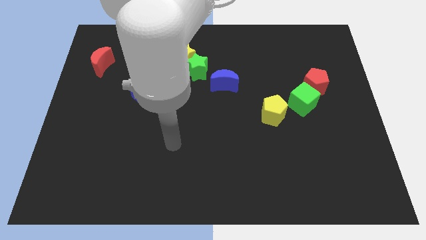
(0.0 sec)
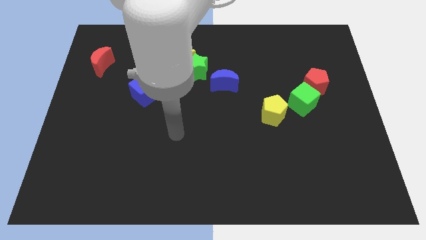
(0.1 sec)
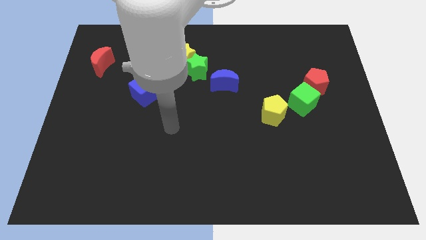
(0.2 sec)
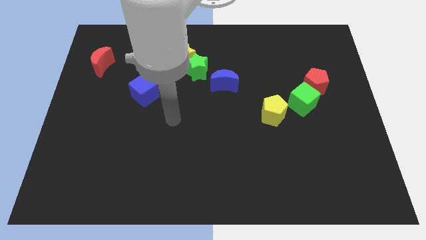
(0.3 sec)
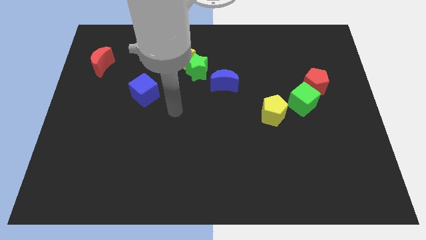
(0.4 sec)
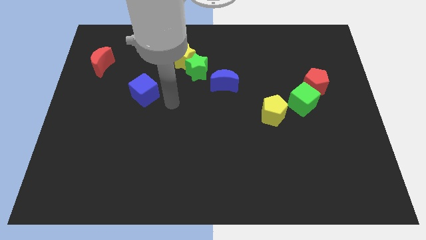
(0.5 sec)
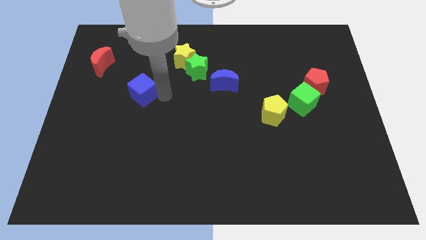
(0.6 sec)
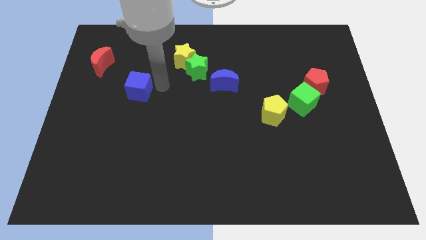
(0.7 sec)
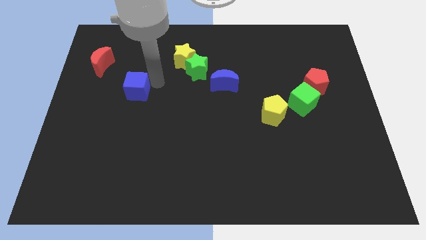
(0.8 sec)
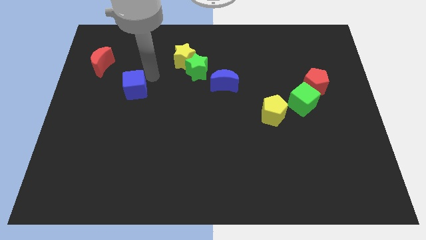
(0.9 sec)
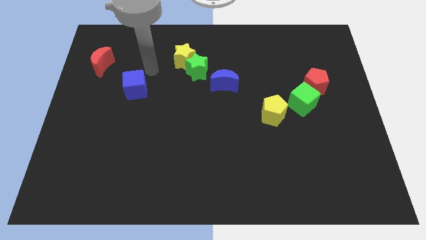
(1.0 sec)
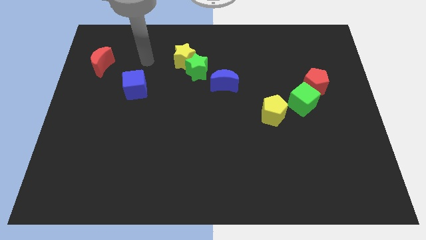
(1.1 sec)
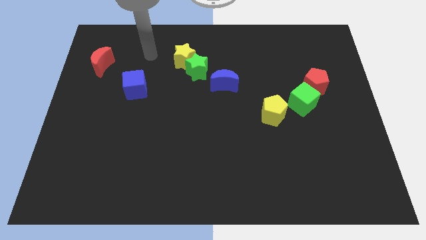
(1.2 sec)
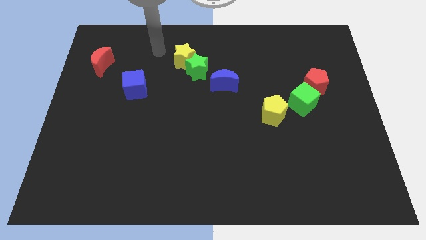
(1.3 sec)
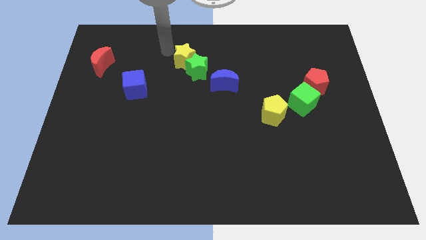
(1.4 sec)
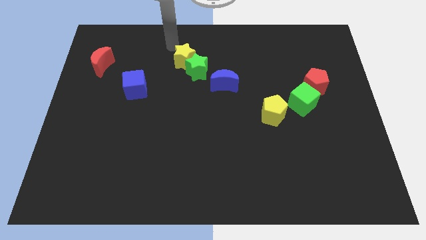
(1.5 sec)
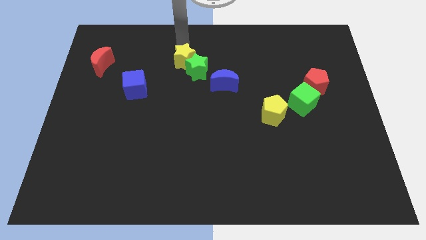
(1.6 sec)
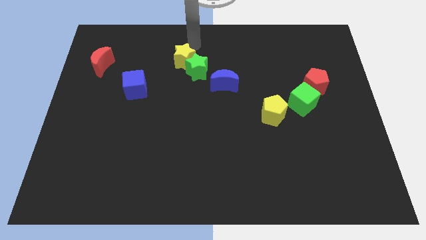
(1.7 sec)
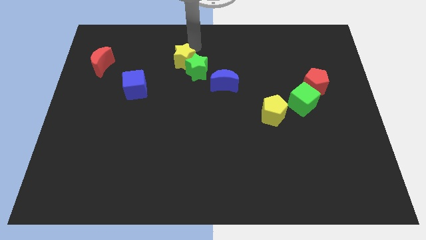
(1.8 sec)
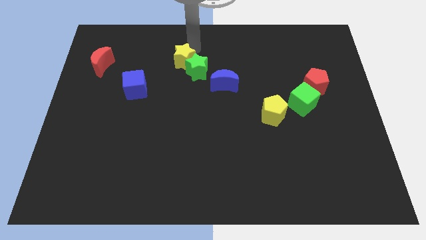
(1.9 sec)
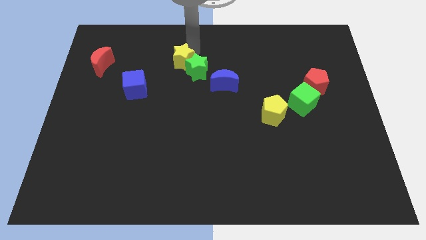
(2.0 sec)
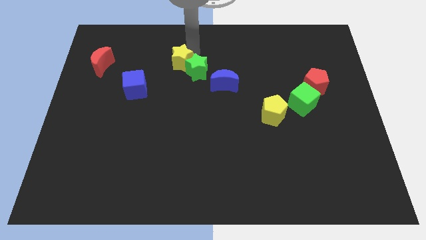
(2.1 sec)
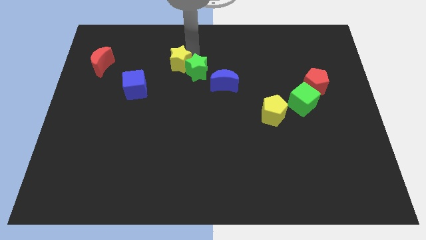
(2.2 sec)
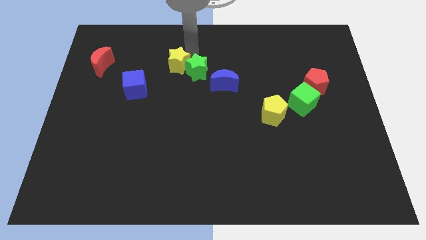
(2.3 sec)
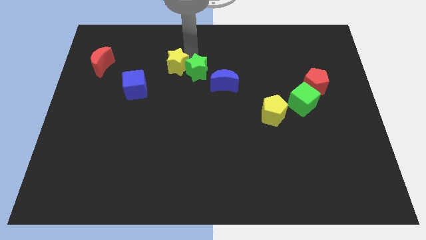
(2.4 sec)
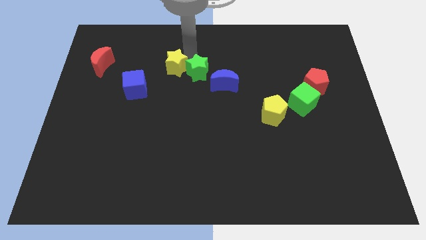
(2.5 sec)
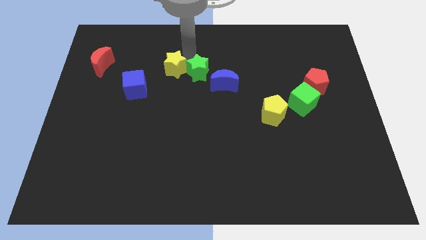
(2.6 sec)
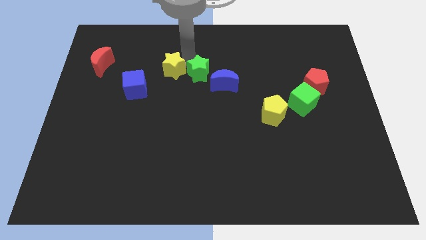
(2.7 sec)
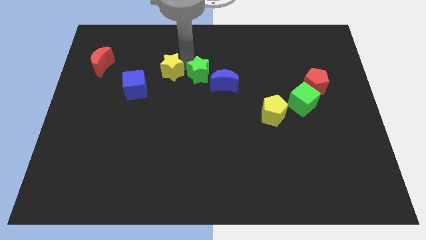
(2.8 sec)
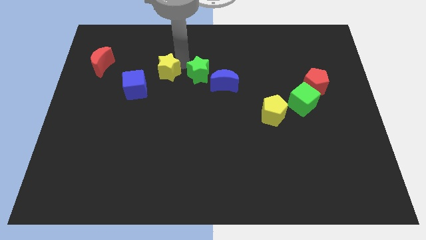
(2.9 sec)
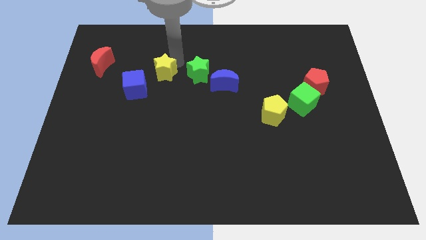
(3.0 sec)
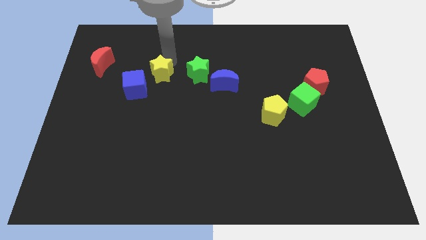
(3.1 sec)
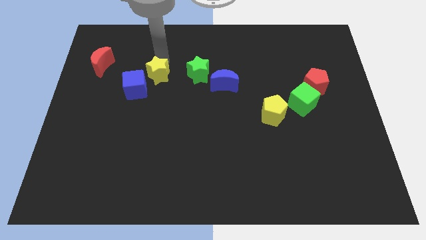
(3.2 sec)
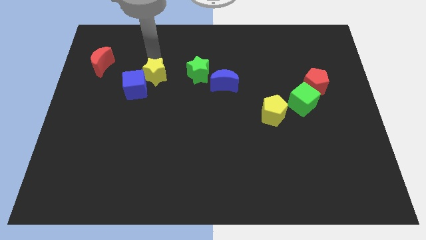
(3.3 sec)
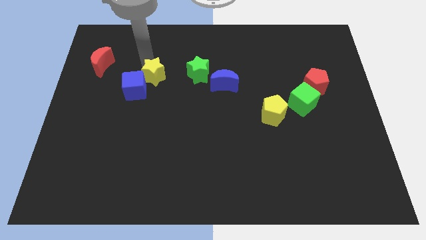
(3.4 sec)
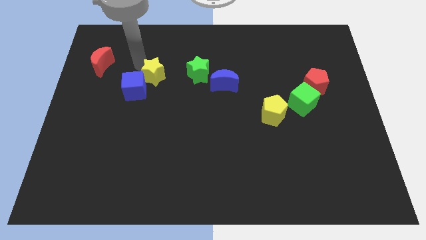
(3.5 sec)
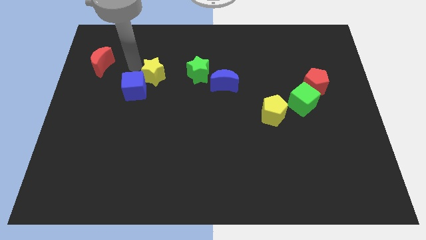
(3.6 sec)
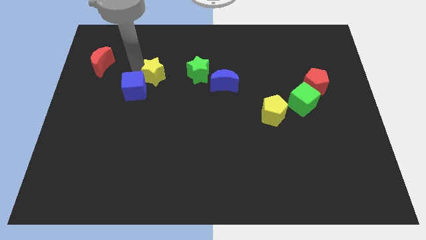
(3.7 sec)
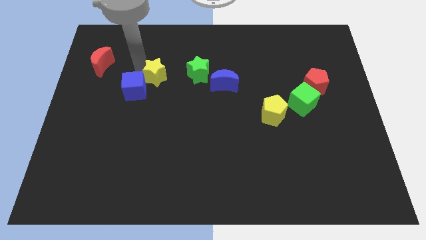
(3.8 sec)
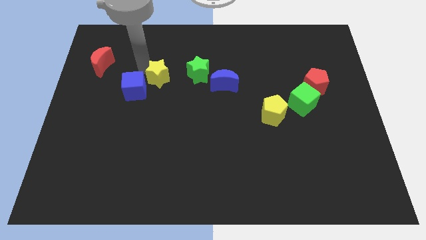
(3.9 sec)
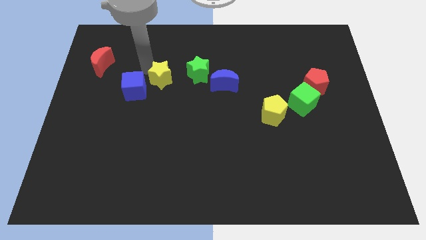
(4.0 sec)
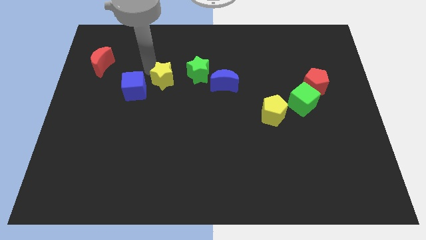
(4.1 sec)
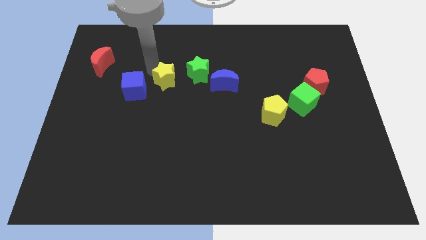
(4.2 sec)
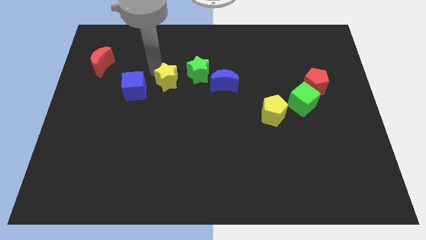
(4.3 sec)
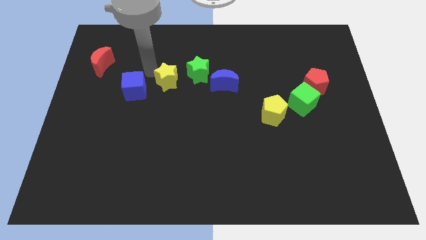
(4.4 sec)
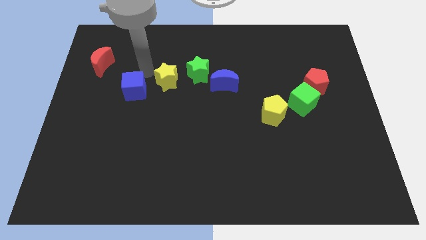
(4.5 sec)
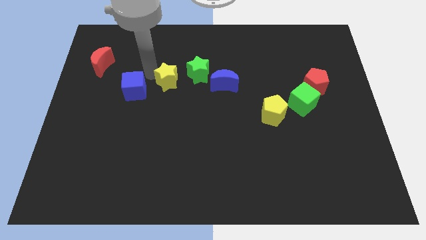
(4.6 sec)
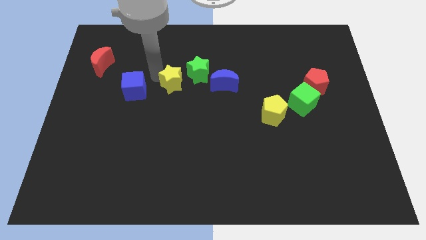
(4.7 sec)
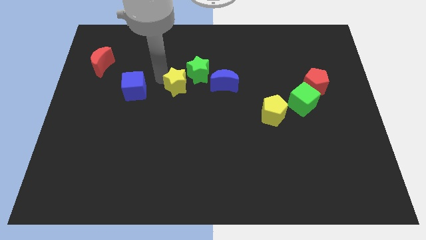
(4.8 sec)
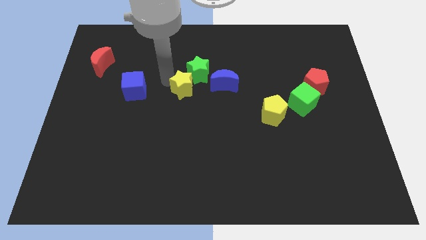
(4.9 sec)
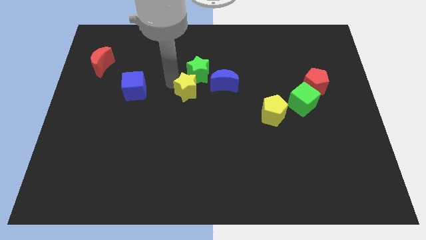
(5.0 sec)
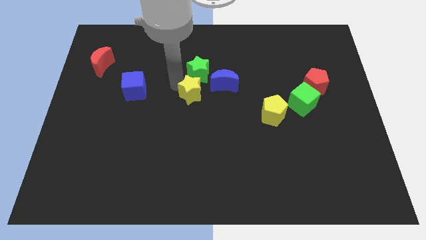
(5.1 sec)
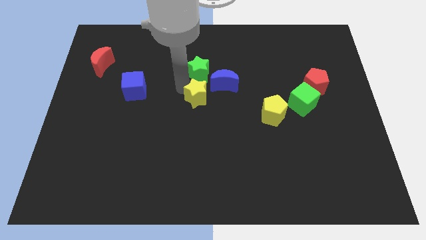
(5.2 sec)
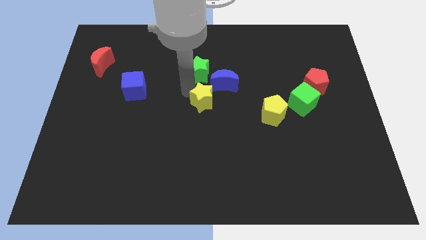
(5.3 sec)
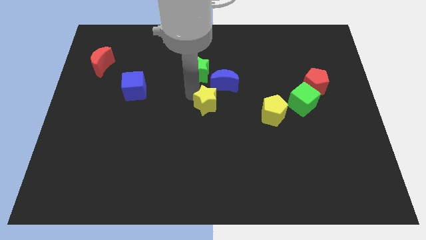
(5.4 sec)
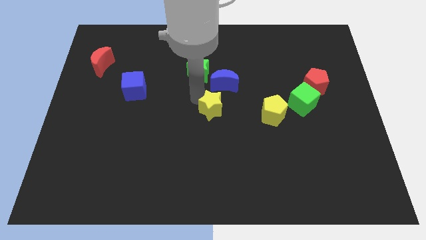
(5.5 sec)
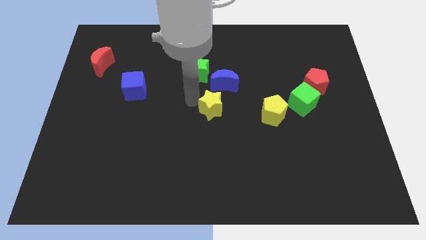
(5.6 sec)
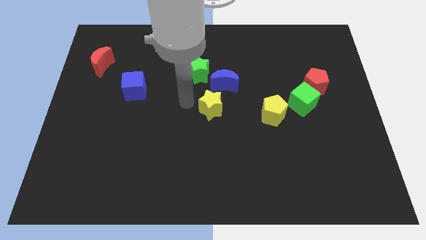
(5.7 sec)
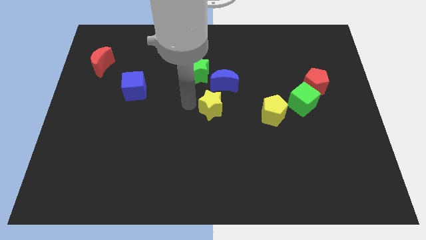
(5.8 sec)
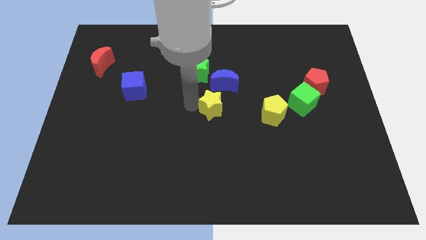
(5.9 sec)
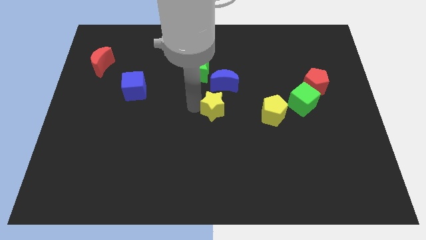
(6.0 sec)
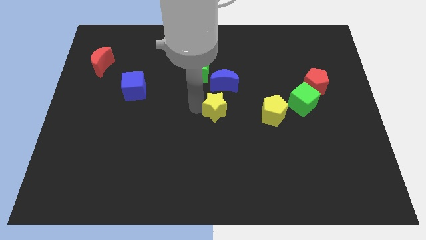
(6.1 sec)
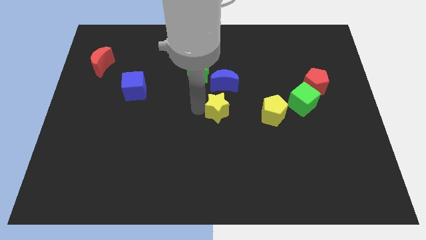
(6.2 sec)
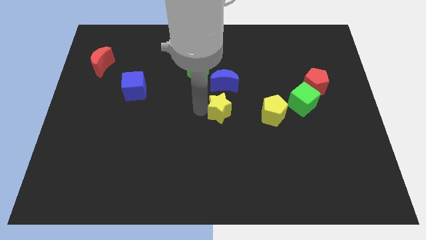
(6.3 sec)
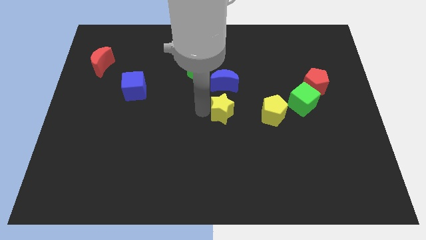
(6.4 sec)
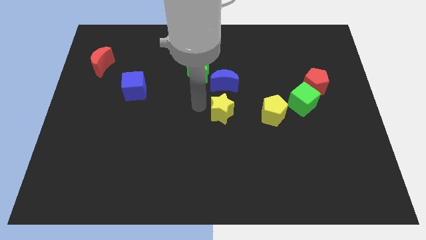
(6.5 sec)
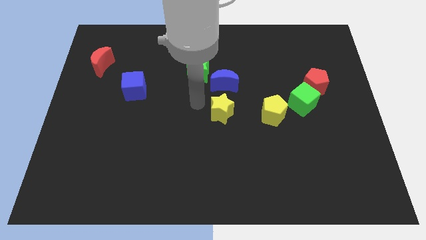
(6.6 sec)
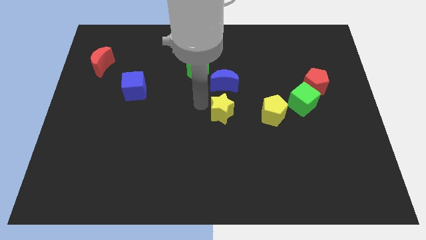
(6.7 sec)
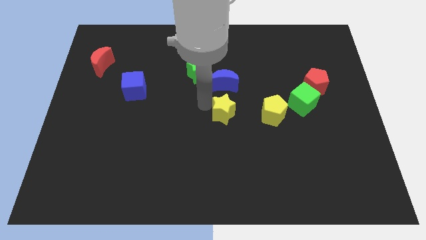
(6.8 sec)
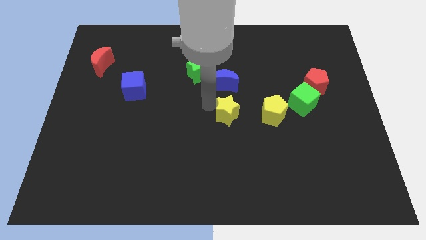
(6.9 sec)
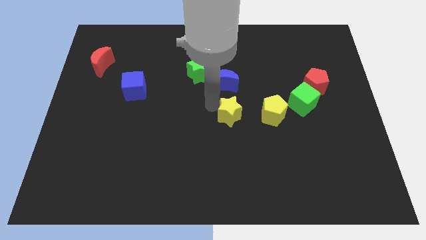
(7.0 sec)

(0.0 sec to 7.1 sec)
slide the yellow star down and right diagonally

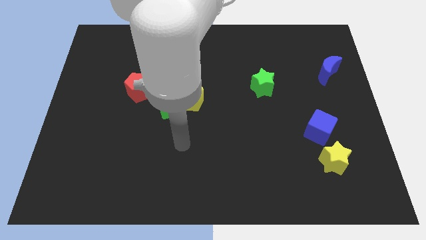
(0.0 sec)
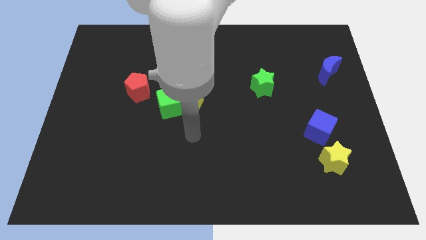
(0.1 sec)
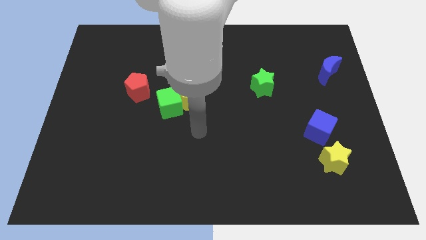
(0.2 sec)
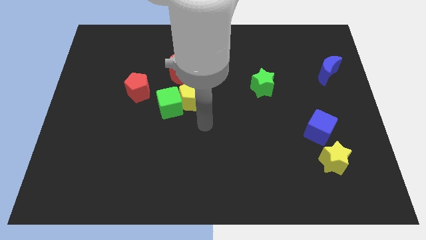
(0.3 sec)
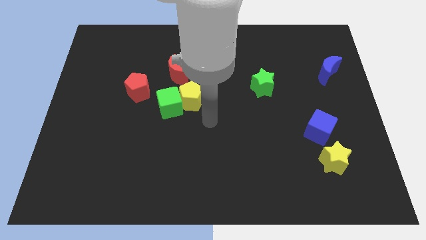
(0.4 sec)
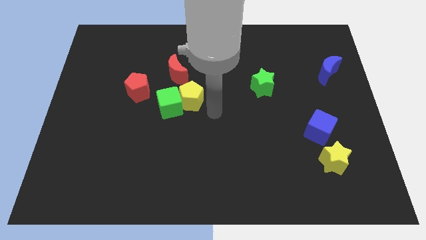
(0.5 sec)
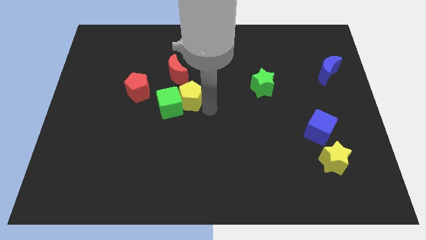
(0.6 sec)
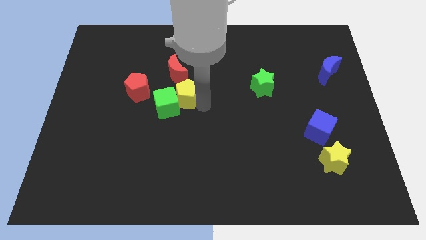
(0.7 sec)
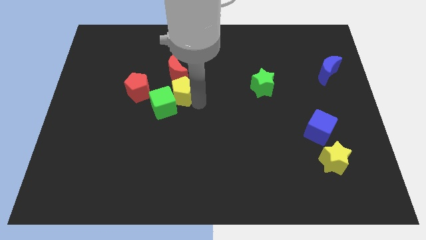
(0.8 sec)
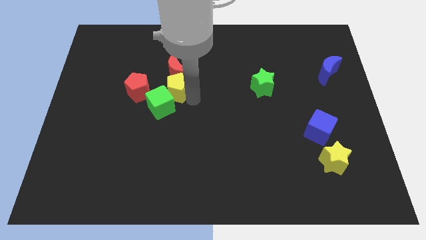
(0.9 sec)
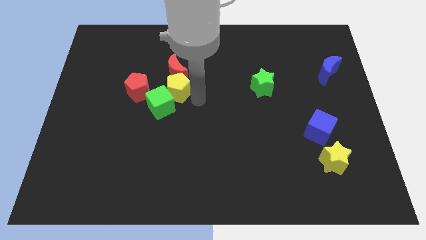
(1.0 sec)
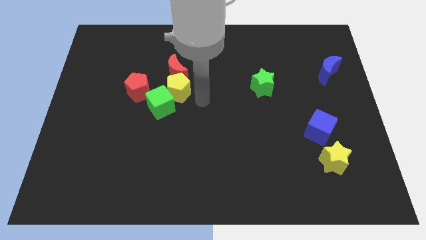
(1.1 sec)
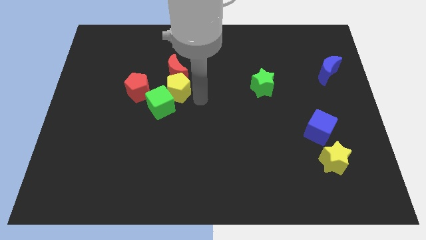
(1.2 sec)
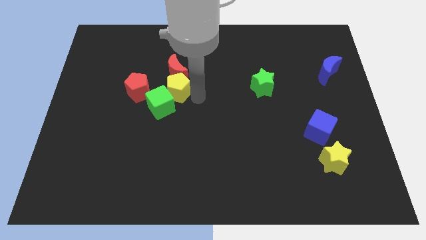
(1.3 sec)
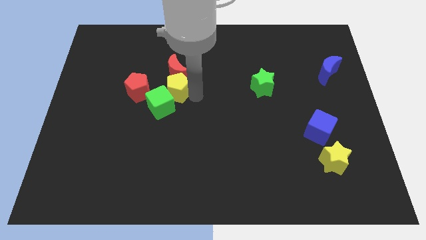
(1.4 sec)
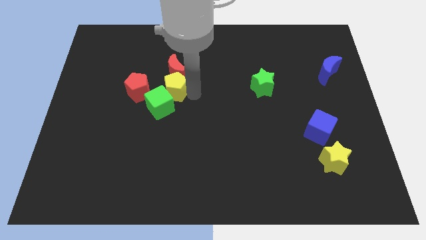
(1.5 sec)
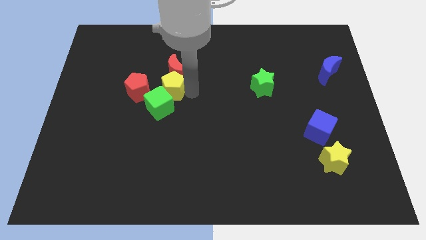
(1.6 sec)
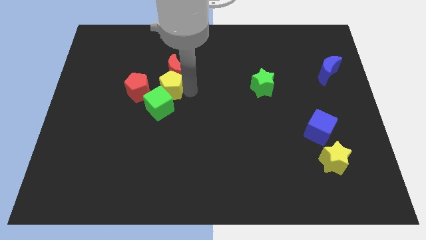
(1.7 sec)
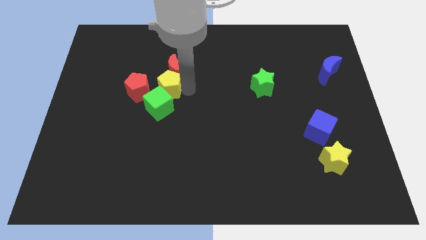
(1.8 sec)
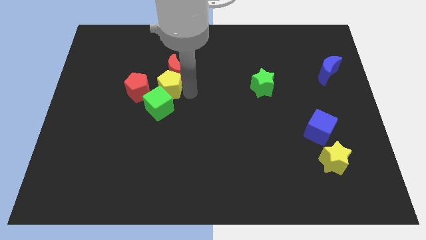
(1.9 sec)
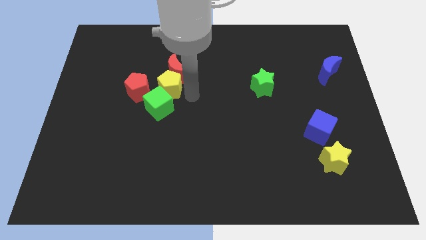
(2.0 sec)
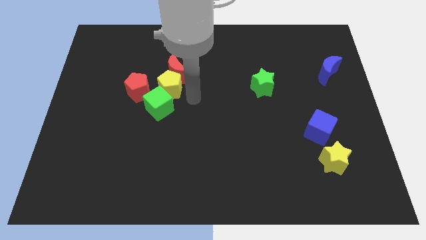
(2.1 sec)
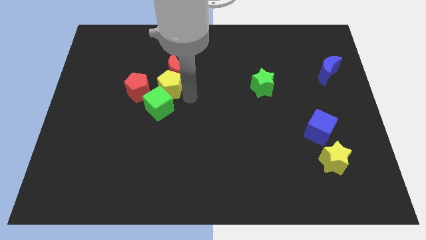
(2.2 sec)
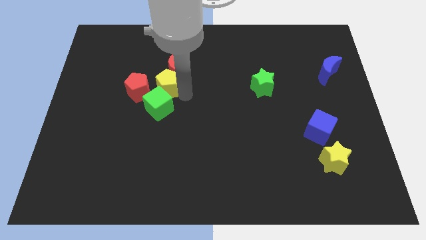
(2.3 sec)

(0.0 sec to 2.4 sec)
move the yellow pentagon somewhat up and then left
